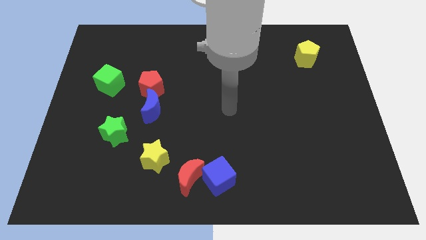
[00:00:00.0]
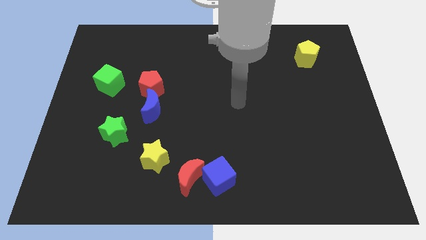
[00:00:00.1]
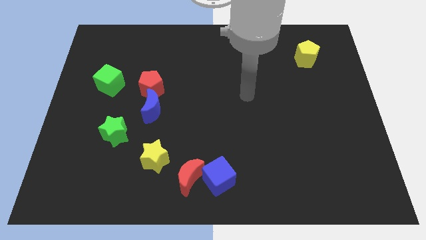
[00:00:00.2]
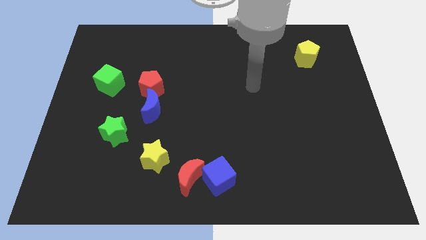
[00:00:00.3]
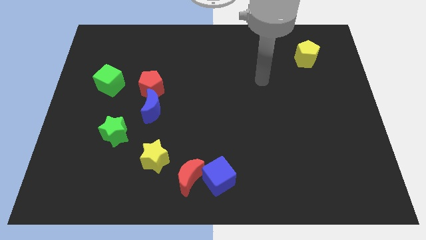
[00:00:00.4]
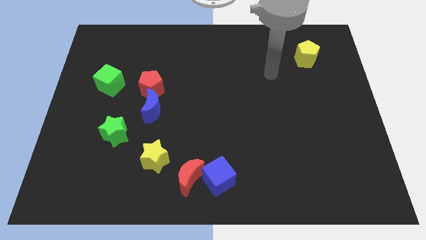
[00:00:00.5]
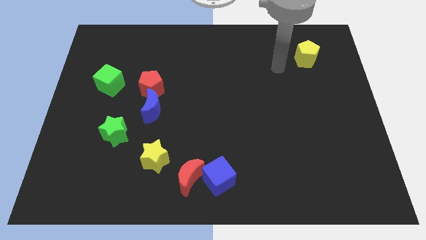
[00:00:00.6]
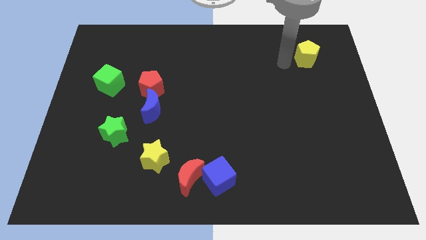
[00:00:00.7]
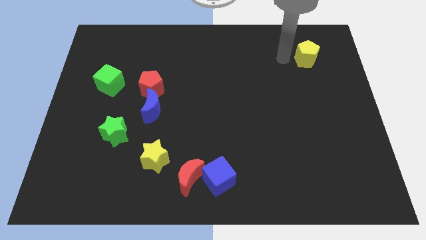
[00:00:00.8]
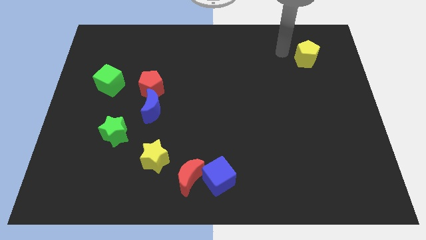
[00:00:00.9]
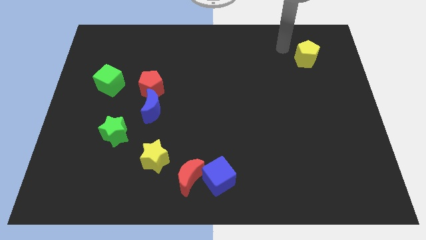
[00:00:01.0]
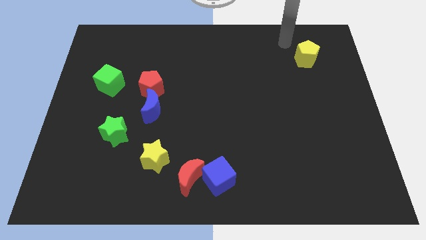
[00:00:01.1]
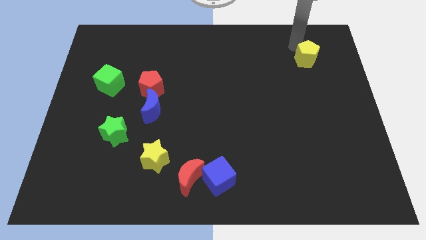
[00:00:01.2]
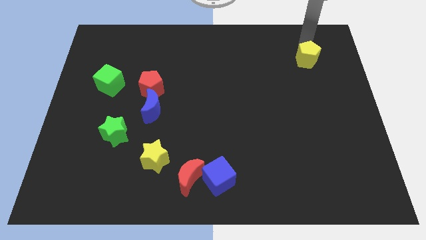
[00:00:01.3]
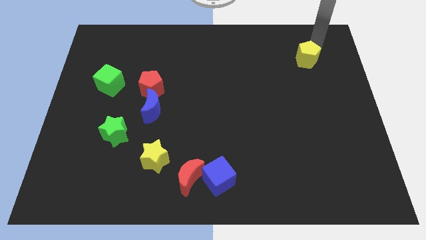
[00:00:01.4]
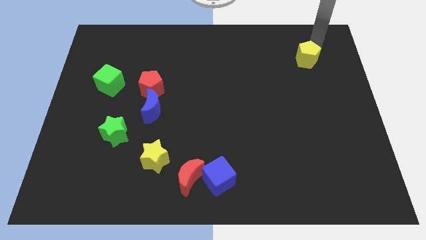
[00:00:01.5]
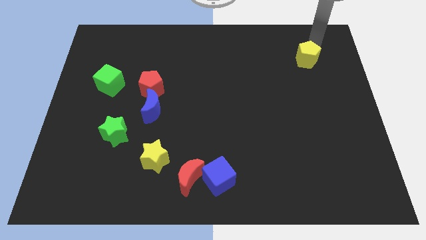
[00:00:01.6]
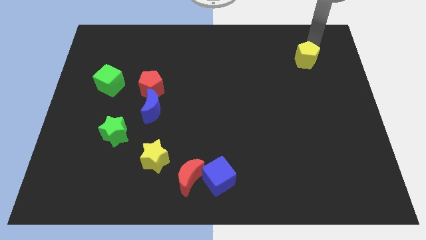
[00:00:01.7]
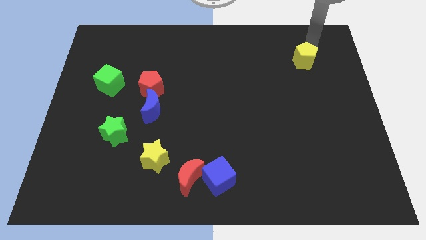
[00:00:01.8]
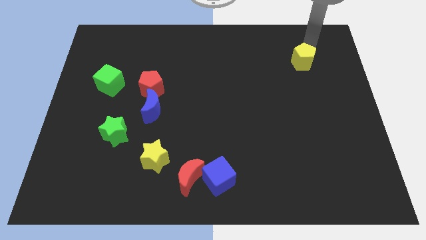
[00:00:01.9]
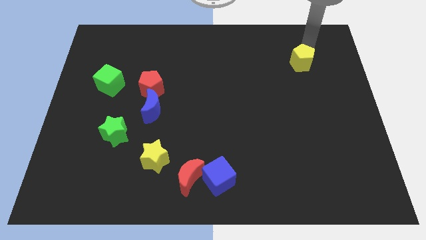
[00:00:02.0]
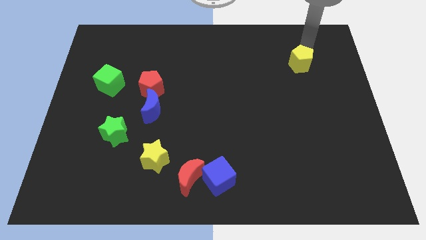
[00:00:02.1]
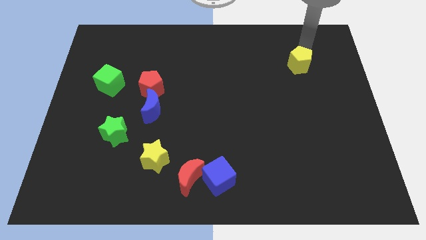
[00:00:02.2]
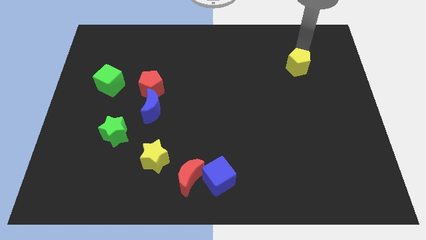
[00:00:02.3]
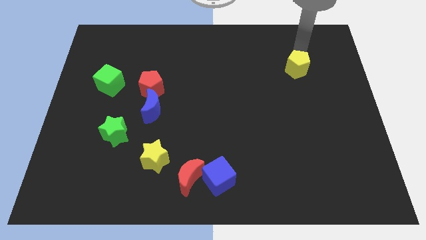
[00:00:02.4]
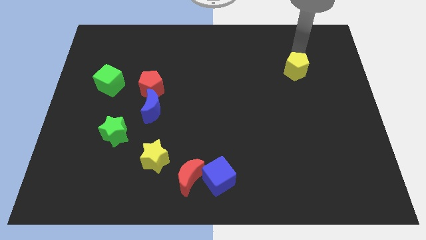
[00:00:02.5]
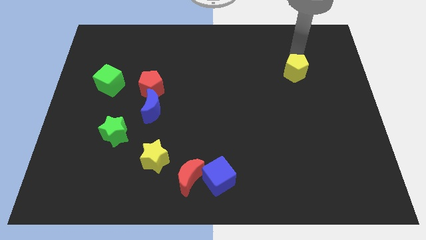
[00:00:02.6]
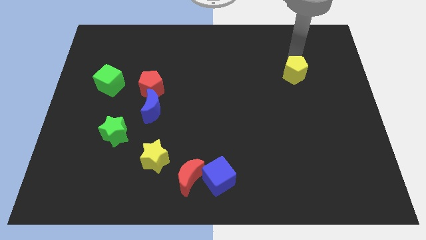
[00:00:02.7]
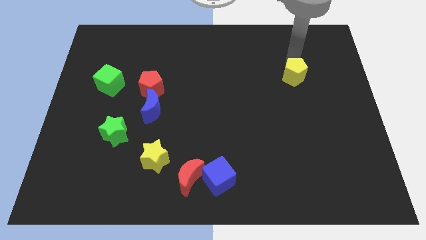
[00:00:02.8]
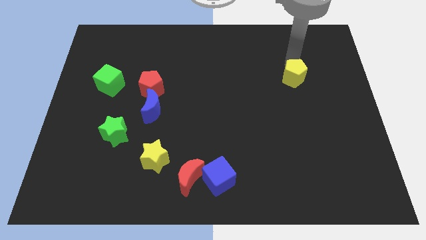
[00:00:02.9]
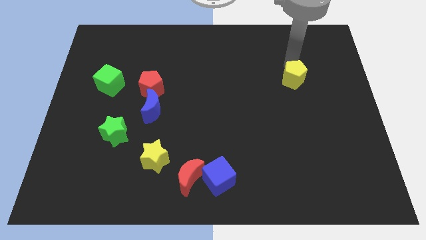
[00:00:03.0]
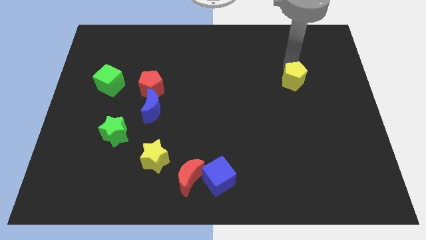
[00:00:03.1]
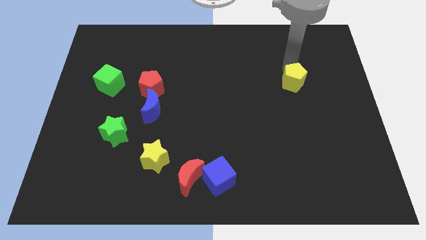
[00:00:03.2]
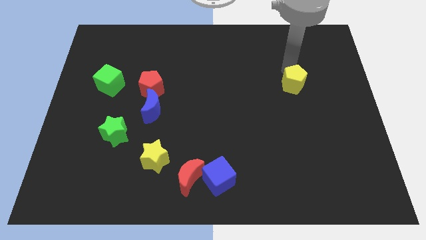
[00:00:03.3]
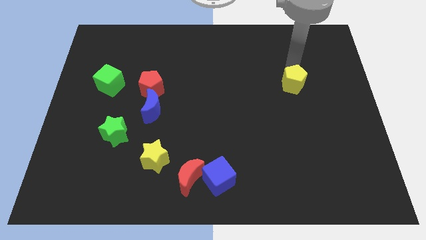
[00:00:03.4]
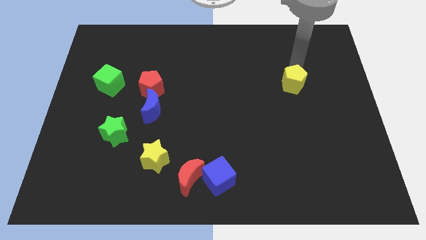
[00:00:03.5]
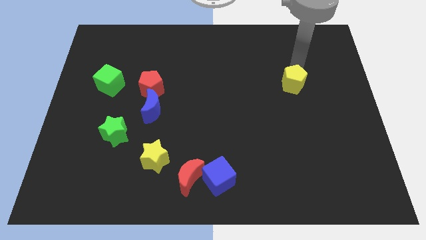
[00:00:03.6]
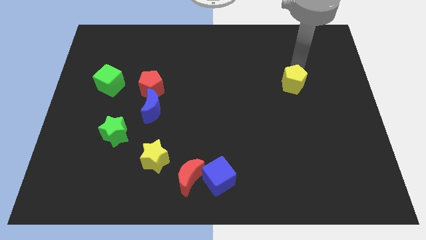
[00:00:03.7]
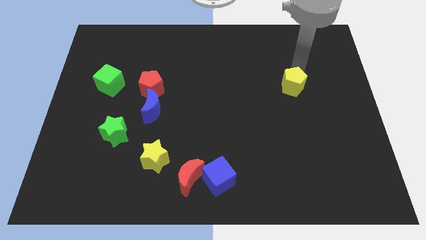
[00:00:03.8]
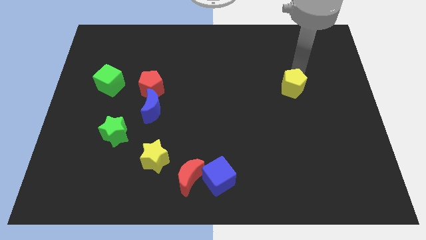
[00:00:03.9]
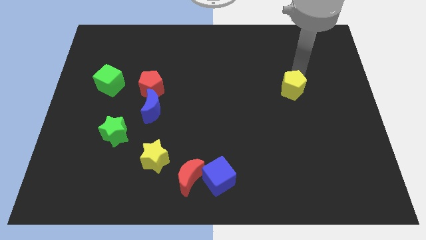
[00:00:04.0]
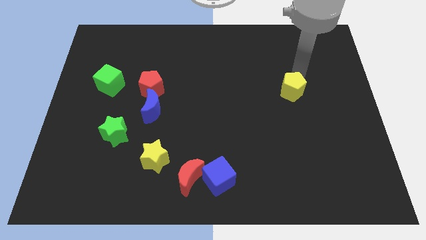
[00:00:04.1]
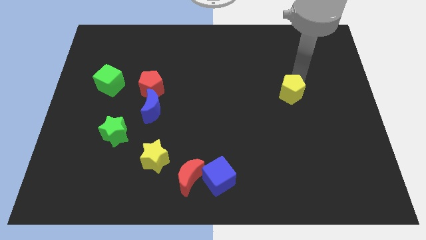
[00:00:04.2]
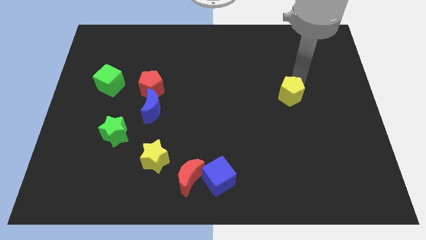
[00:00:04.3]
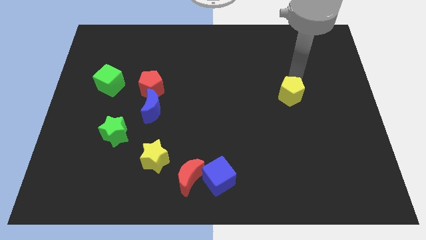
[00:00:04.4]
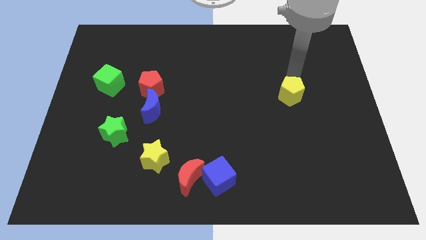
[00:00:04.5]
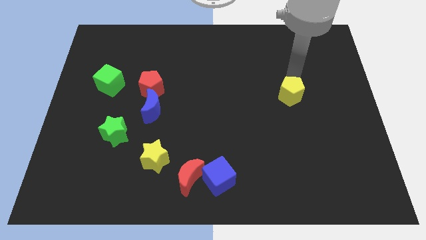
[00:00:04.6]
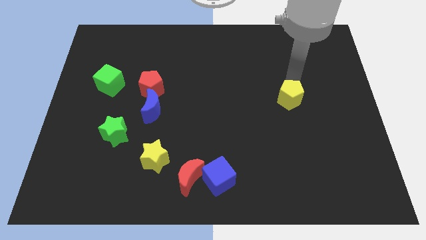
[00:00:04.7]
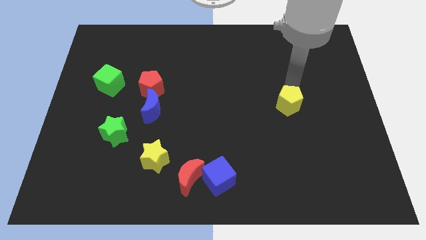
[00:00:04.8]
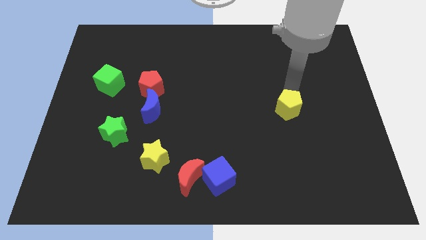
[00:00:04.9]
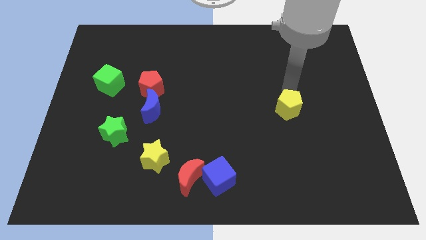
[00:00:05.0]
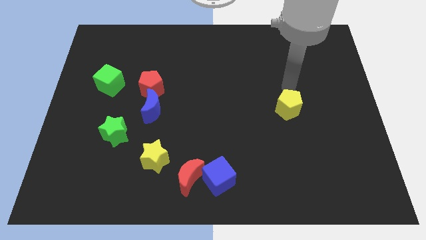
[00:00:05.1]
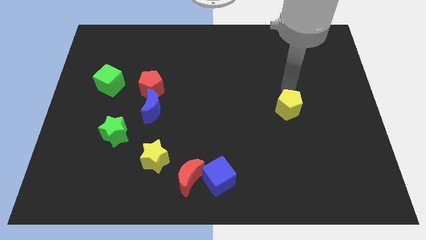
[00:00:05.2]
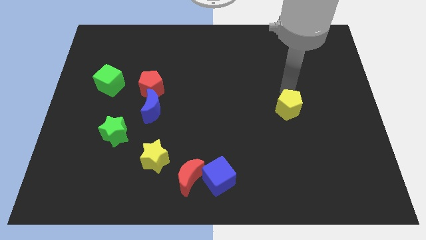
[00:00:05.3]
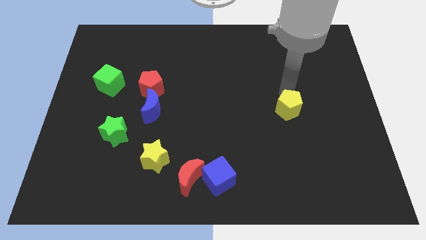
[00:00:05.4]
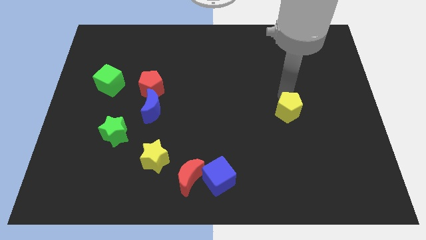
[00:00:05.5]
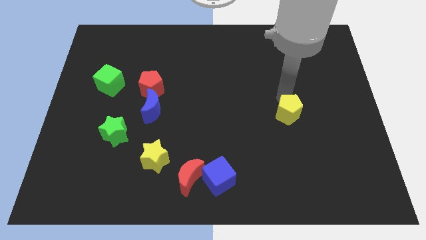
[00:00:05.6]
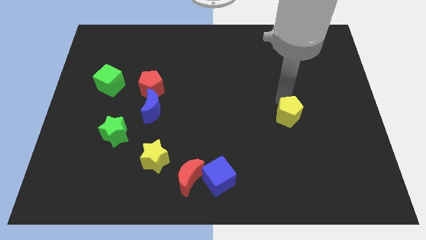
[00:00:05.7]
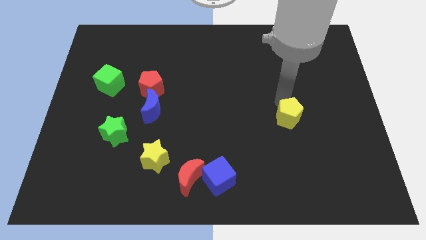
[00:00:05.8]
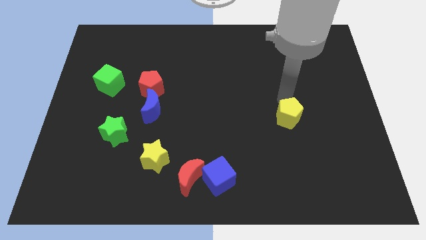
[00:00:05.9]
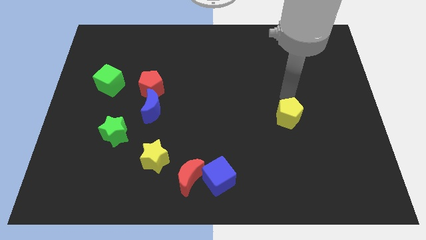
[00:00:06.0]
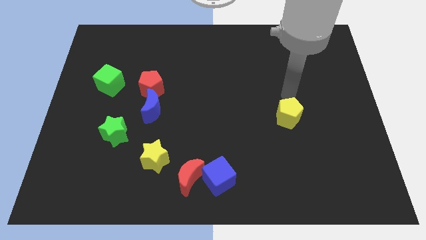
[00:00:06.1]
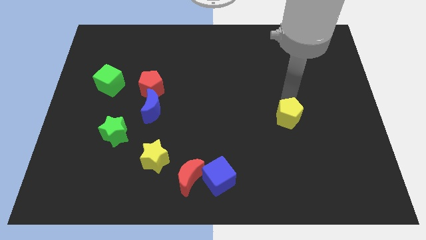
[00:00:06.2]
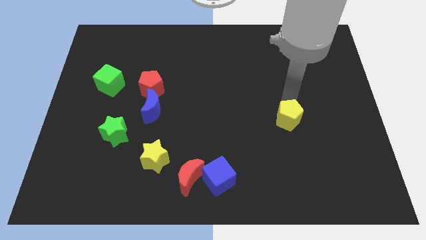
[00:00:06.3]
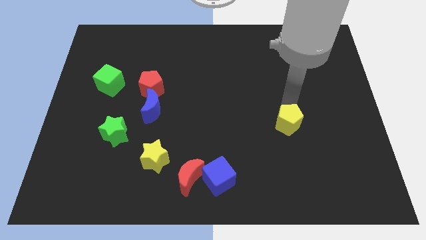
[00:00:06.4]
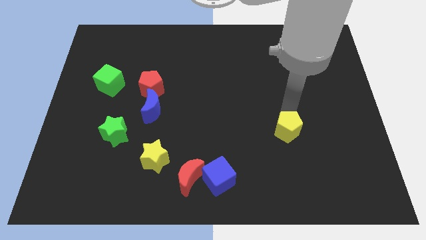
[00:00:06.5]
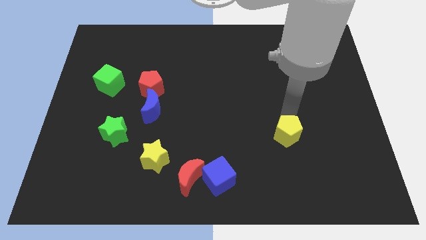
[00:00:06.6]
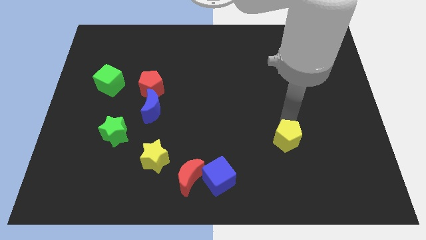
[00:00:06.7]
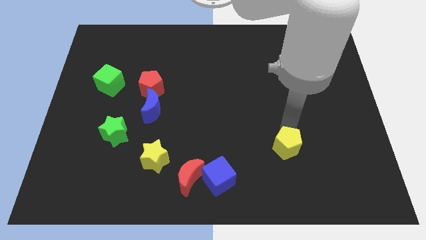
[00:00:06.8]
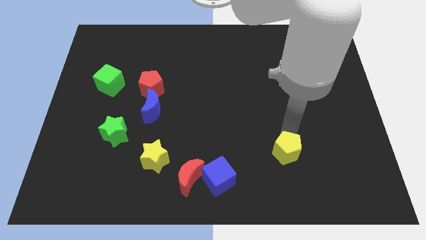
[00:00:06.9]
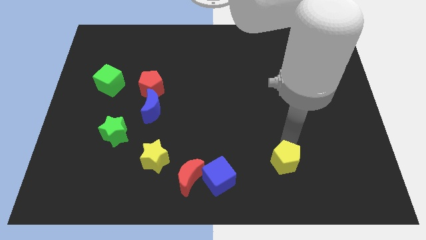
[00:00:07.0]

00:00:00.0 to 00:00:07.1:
move the yellow pentagon to the right side of the blue cube
